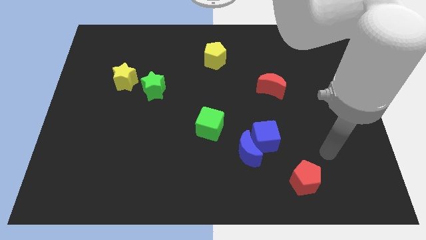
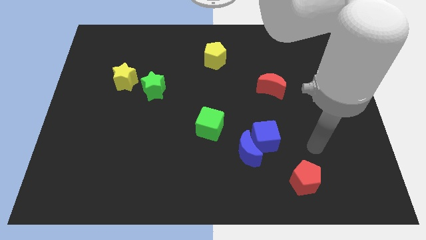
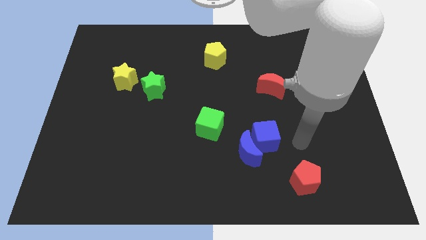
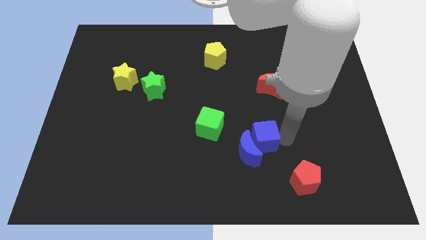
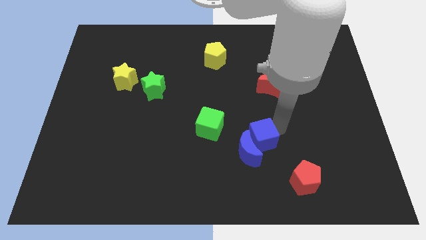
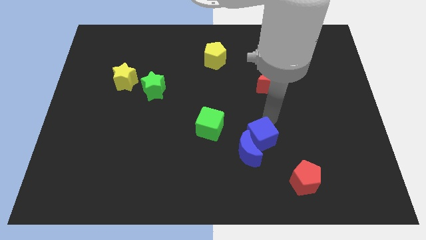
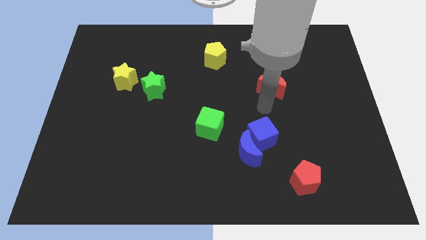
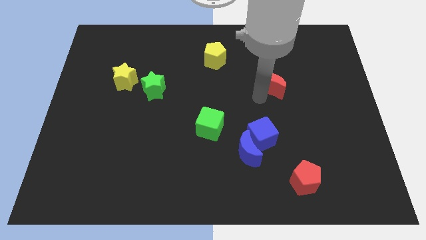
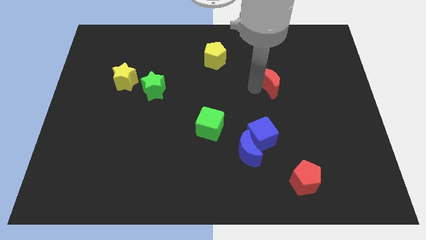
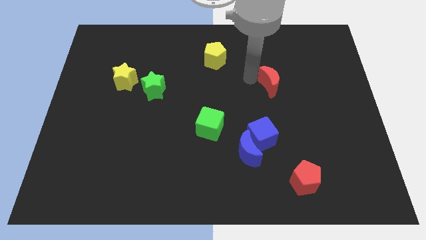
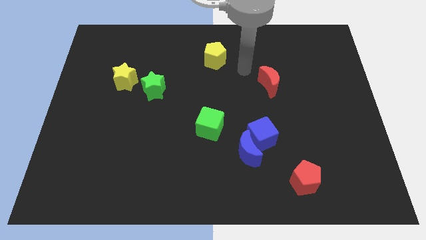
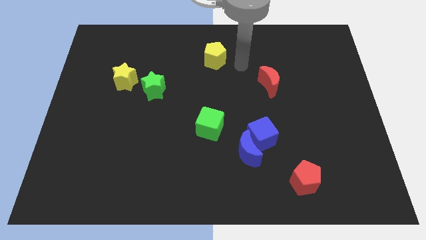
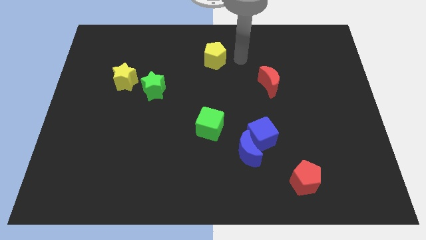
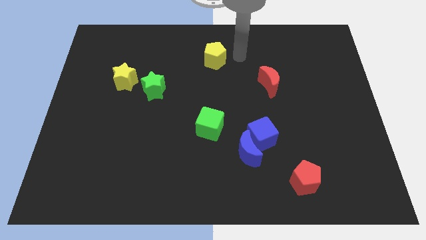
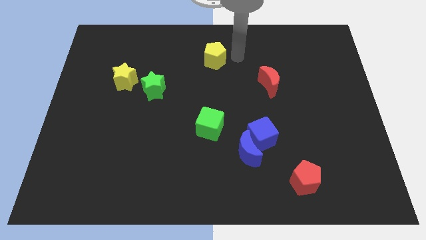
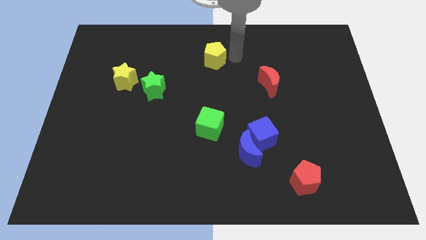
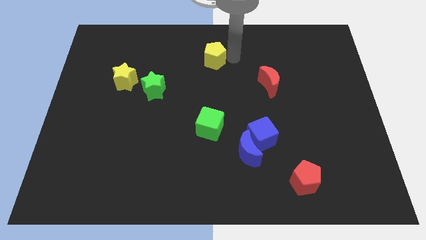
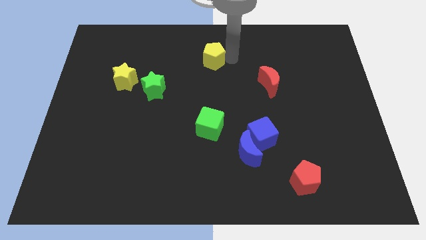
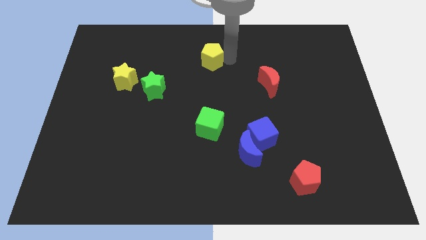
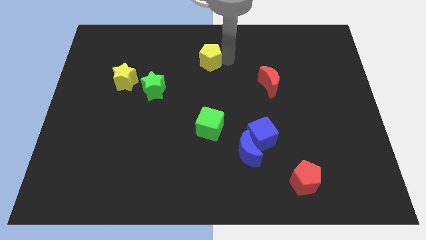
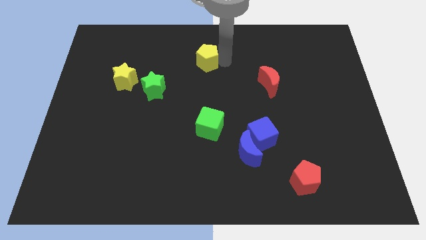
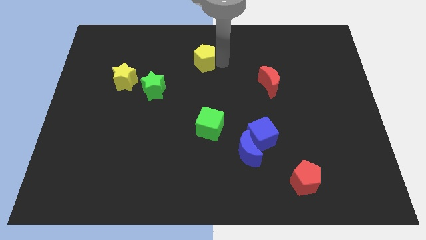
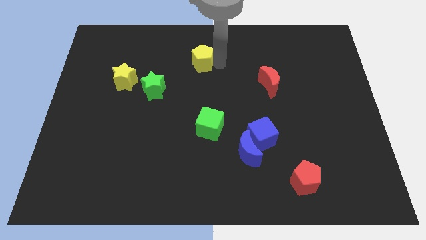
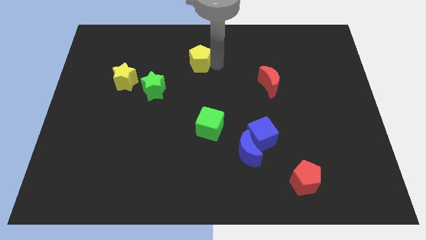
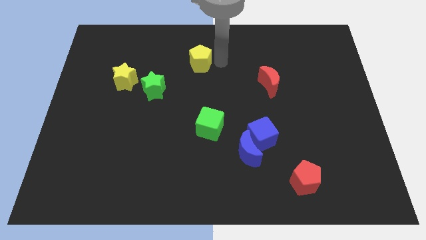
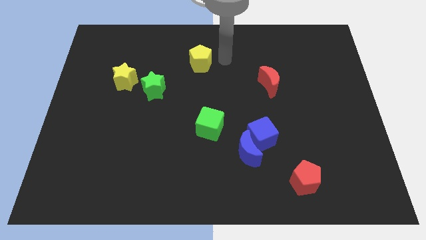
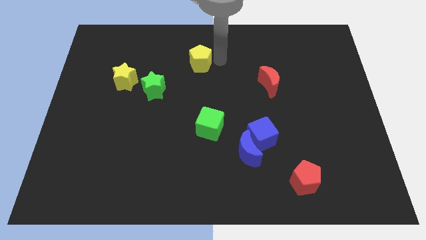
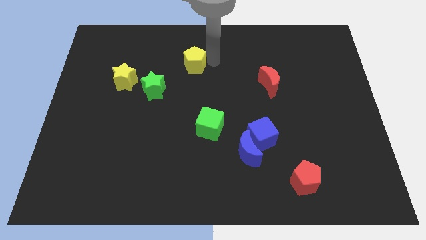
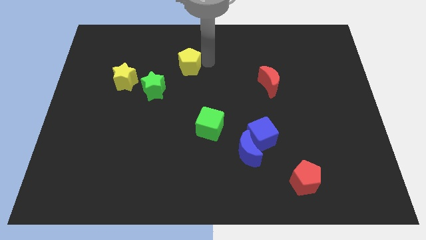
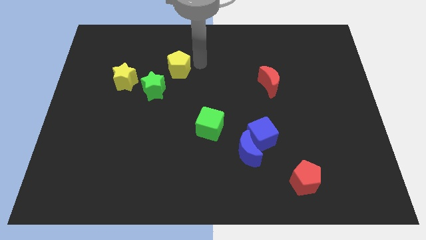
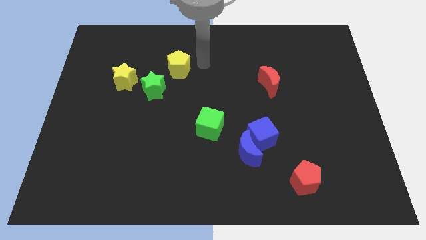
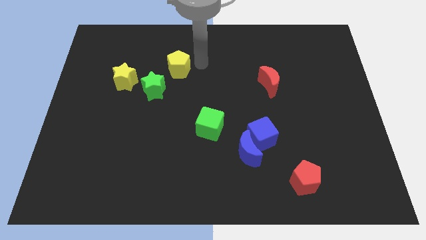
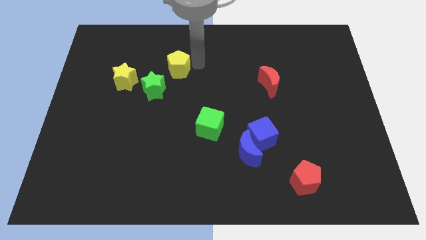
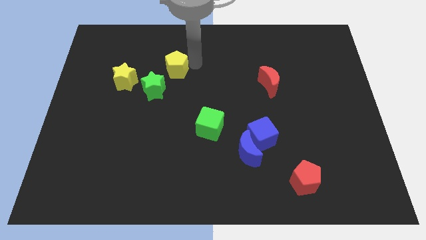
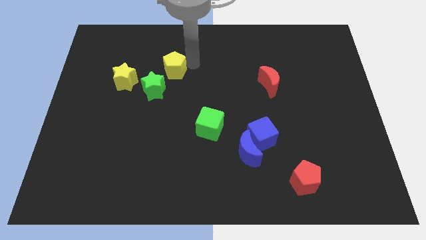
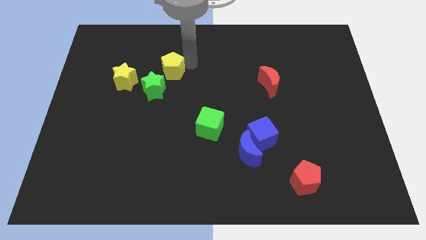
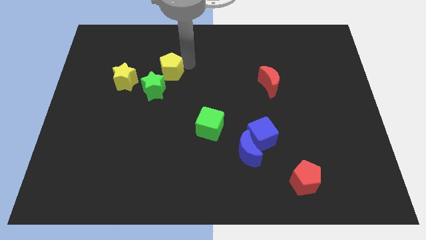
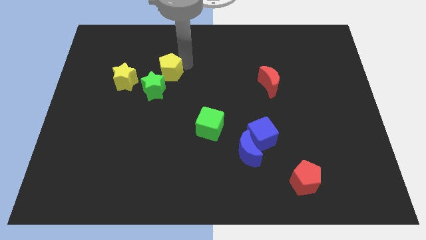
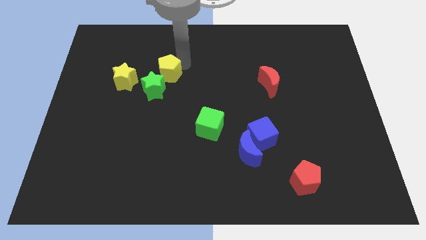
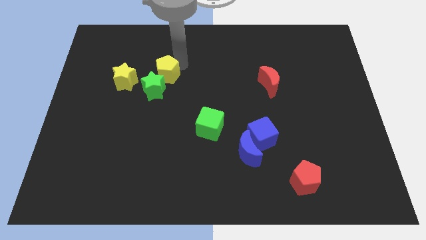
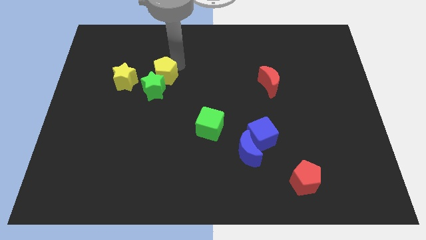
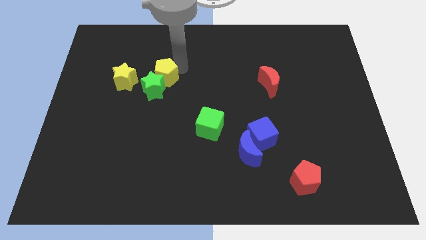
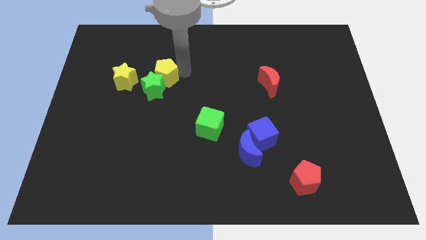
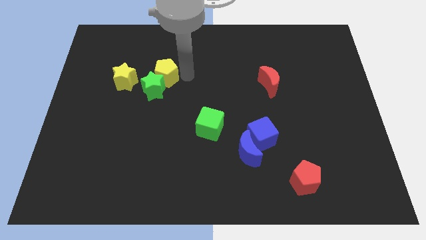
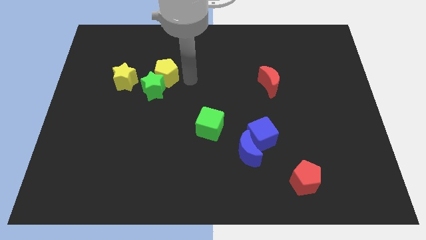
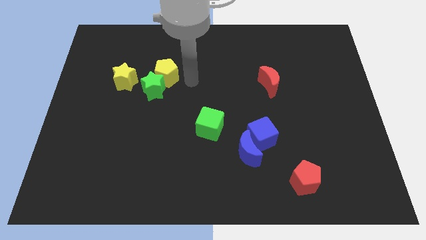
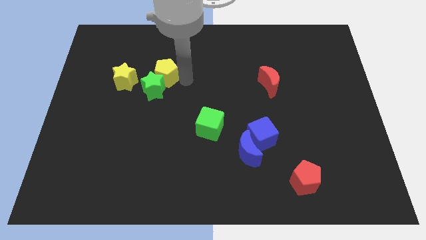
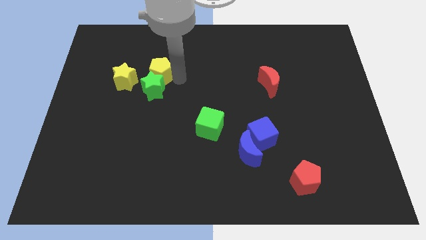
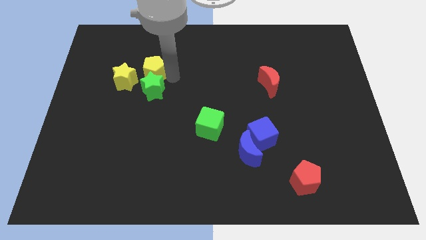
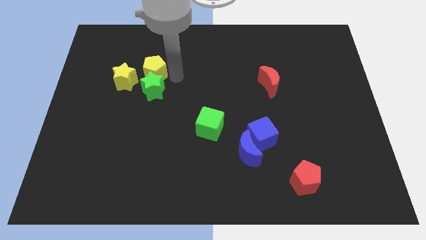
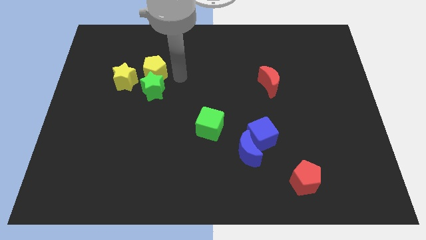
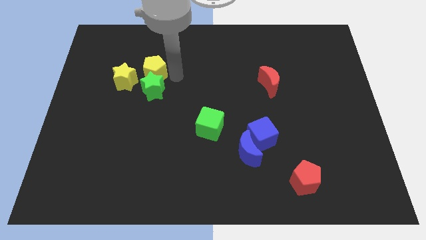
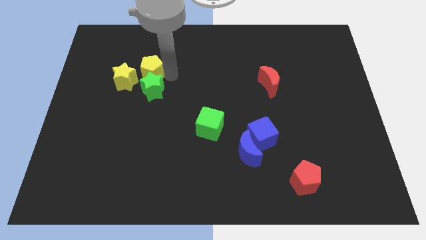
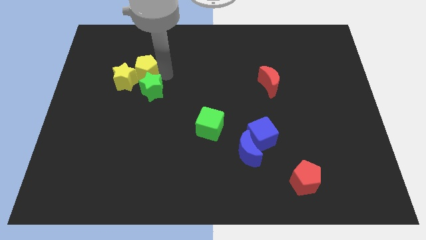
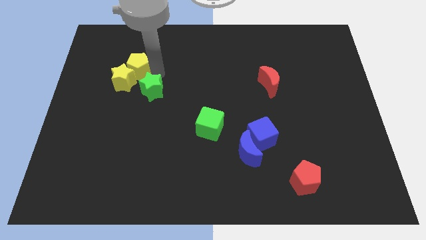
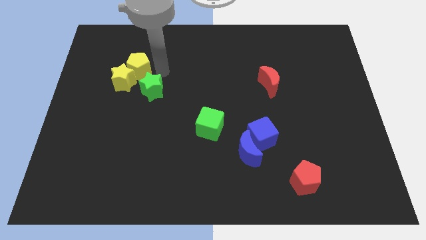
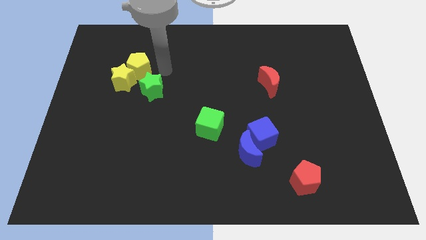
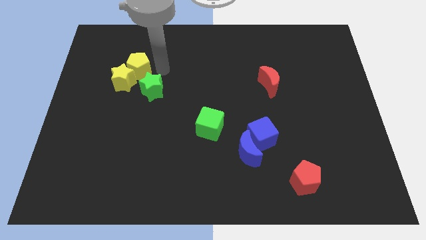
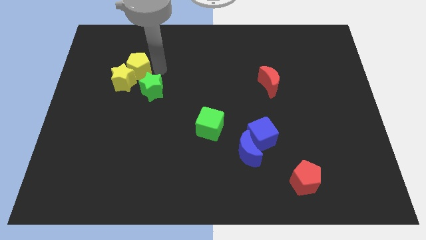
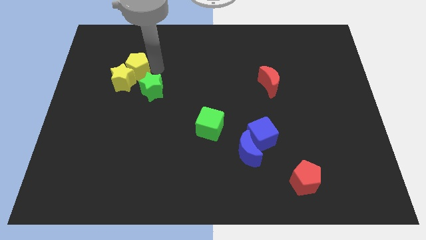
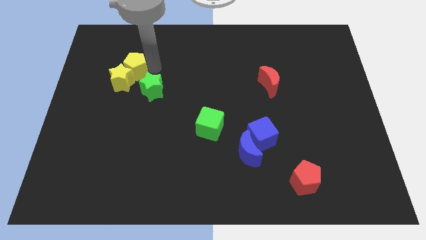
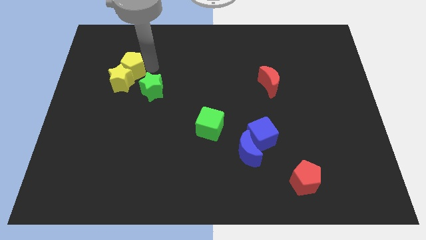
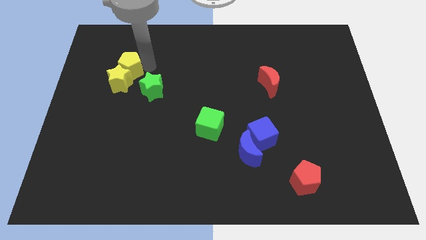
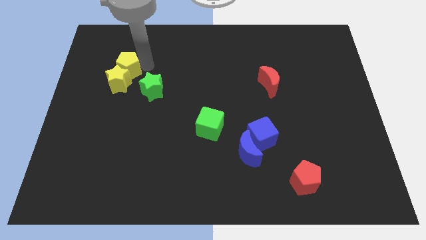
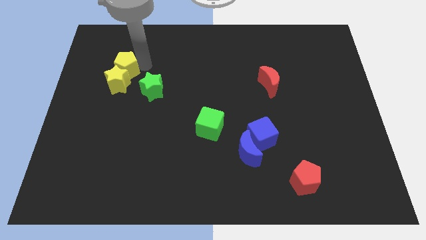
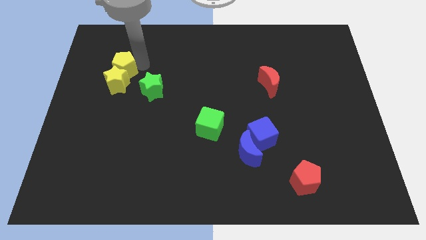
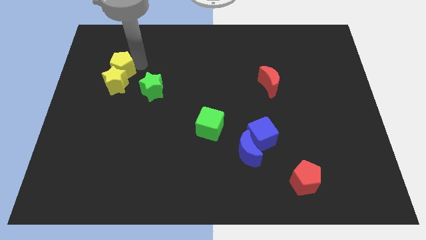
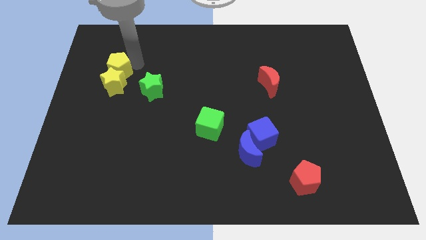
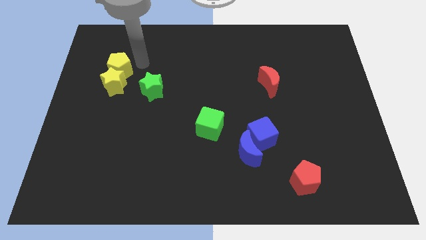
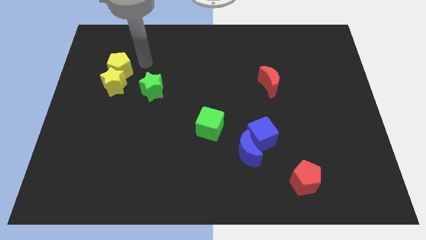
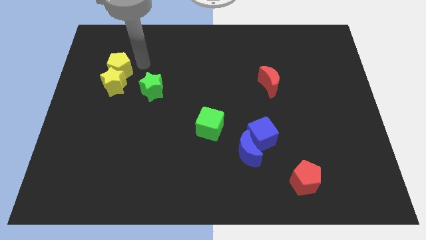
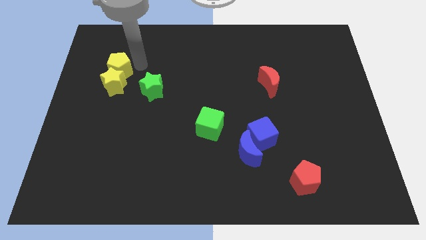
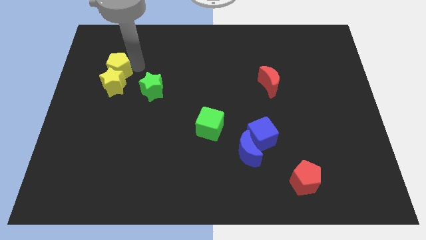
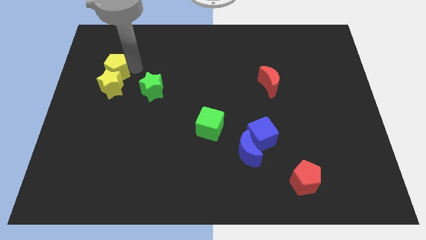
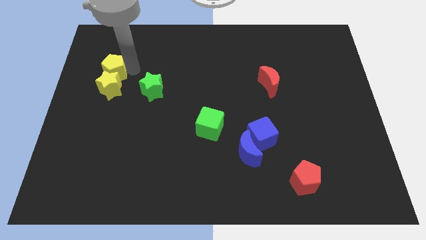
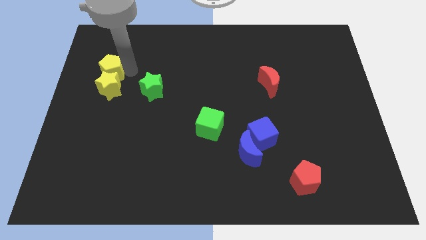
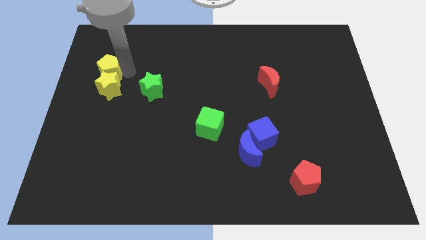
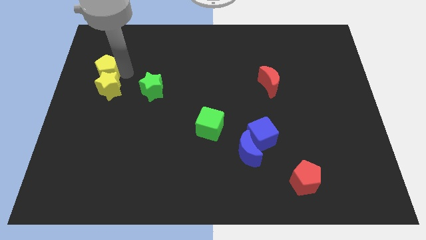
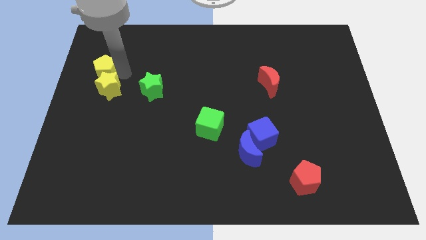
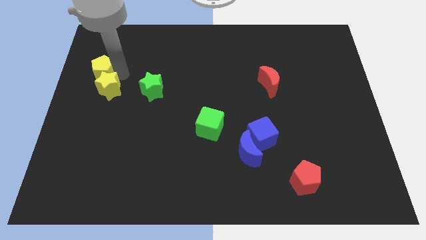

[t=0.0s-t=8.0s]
push the yellow pentagon to the left side
